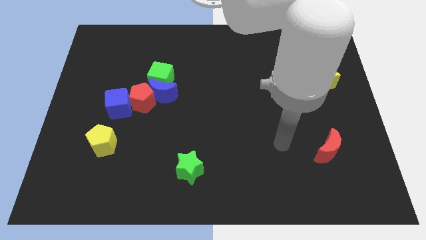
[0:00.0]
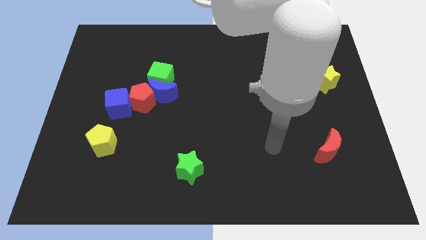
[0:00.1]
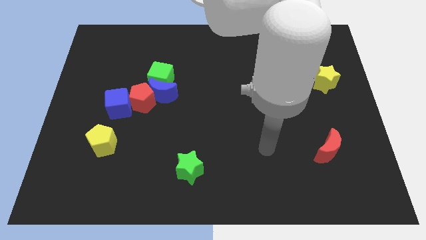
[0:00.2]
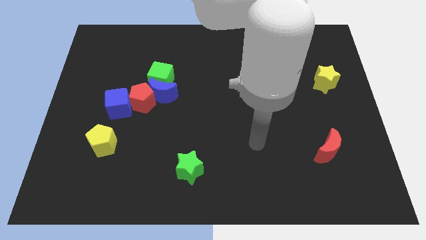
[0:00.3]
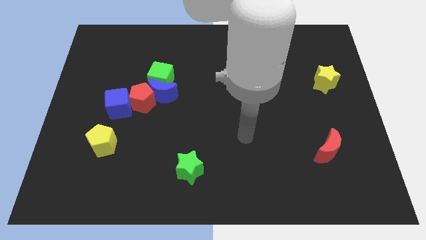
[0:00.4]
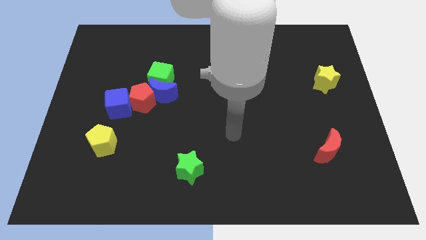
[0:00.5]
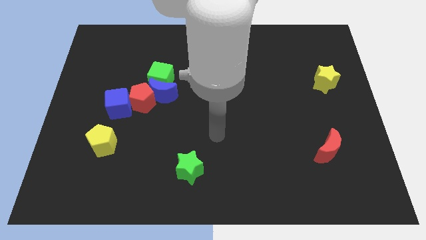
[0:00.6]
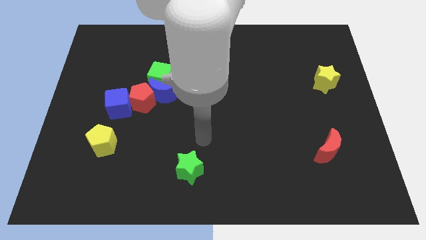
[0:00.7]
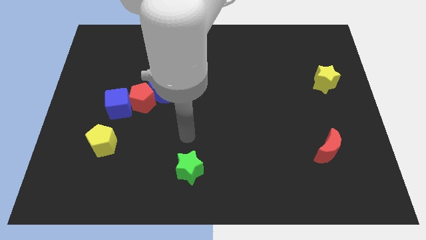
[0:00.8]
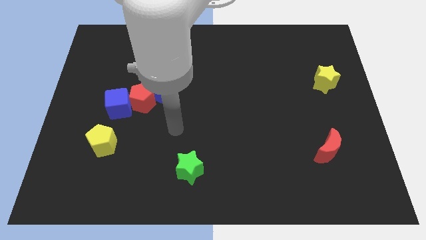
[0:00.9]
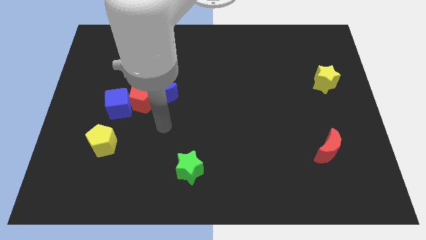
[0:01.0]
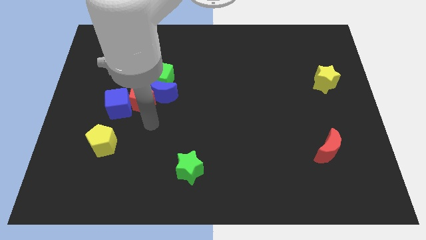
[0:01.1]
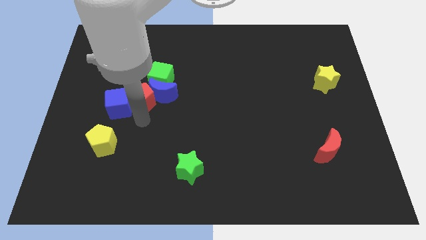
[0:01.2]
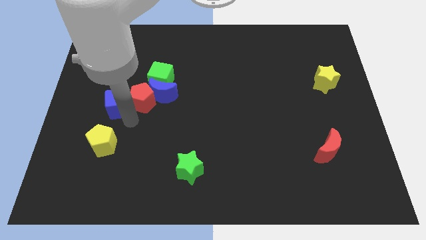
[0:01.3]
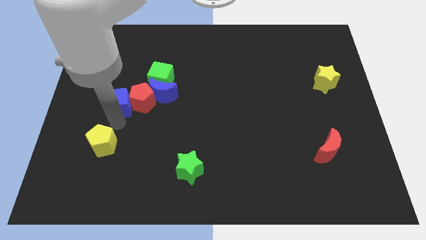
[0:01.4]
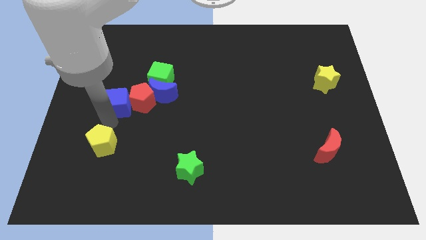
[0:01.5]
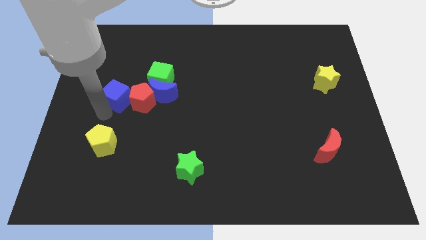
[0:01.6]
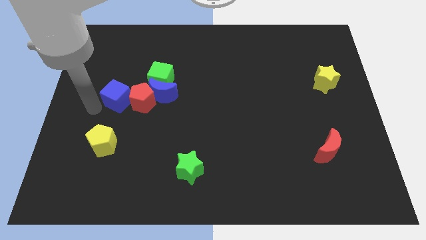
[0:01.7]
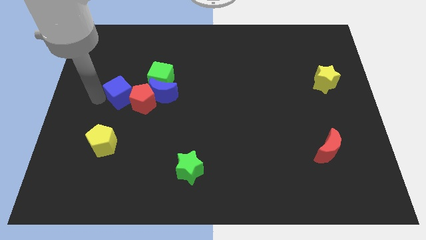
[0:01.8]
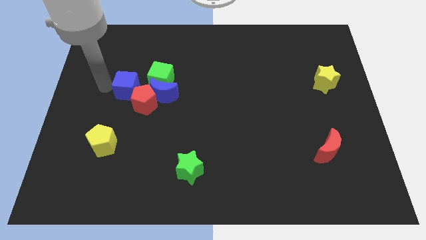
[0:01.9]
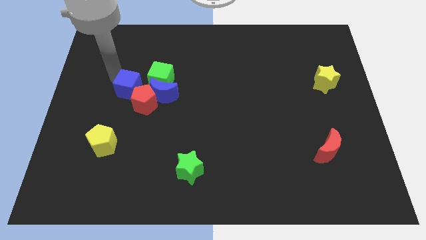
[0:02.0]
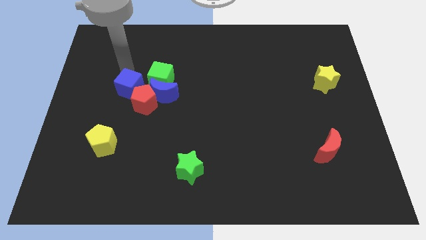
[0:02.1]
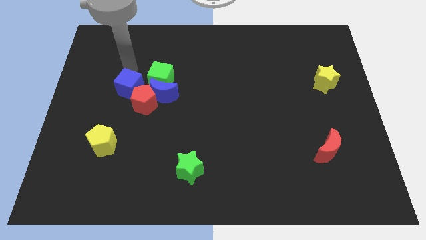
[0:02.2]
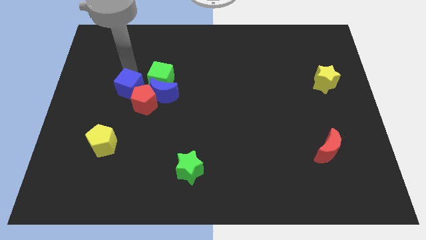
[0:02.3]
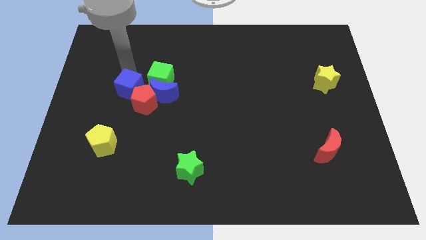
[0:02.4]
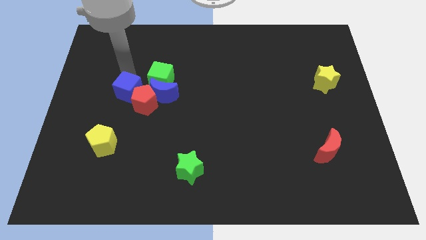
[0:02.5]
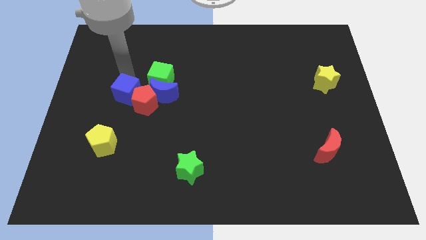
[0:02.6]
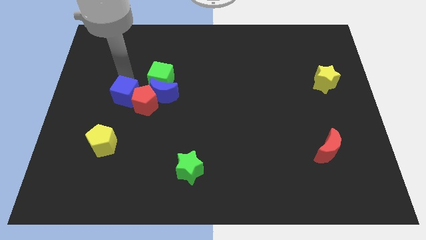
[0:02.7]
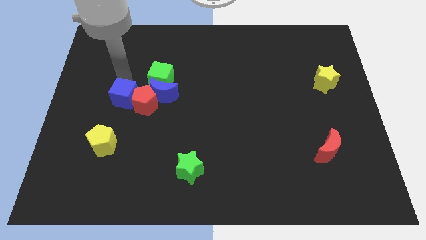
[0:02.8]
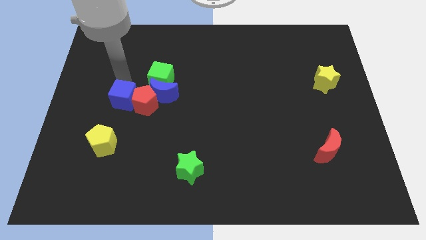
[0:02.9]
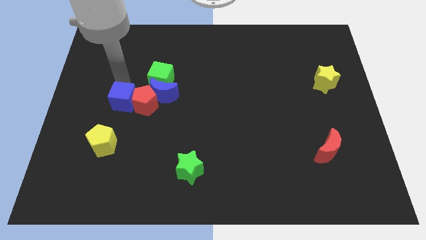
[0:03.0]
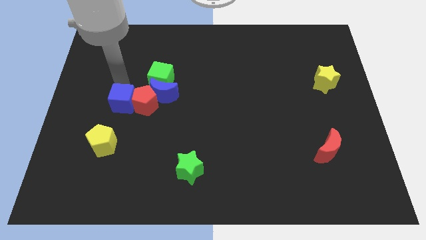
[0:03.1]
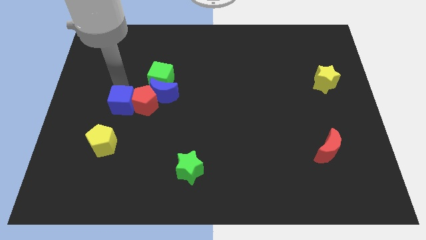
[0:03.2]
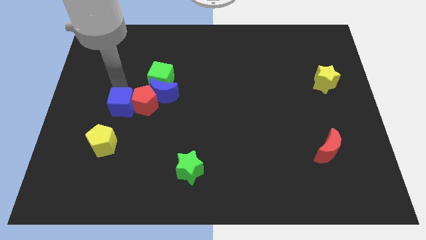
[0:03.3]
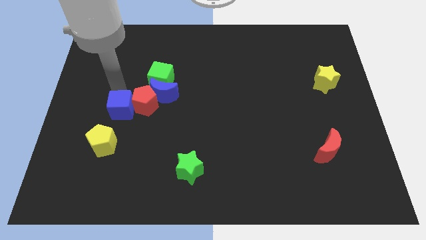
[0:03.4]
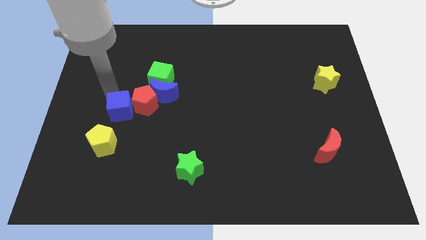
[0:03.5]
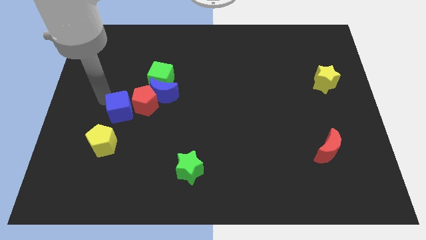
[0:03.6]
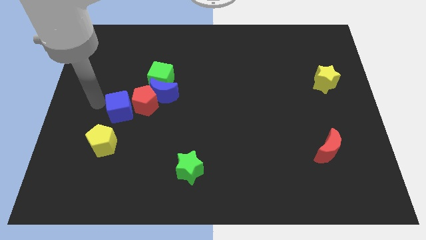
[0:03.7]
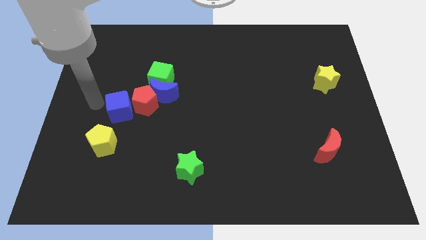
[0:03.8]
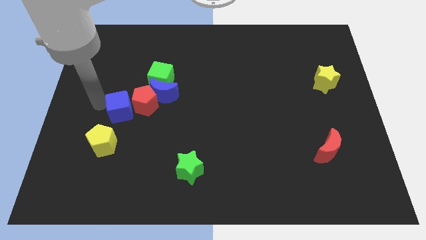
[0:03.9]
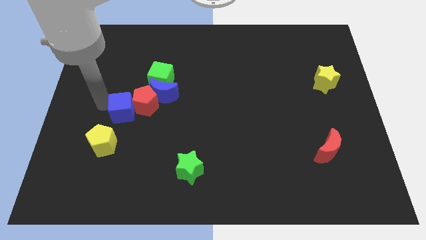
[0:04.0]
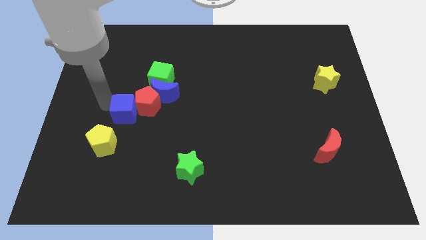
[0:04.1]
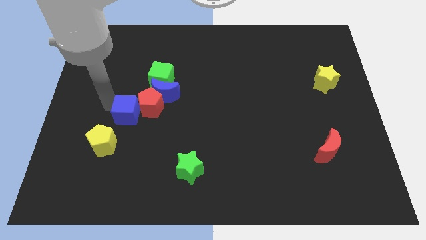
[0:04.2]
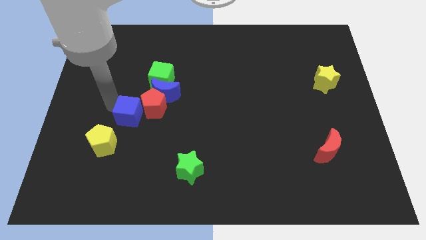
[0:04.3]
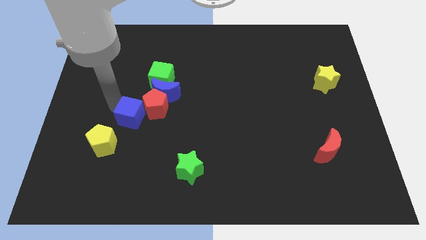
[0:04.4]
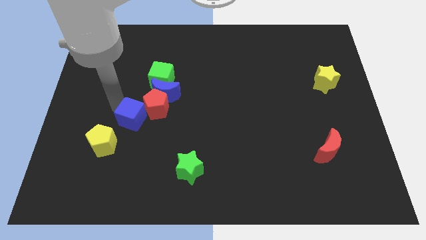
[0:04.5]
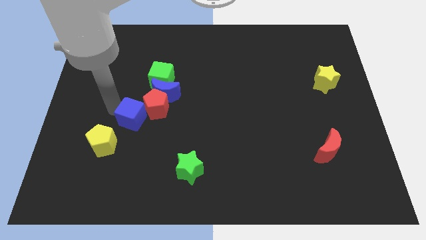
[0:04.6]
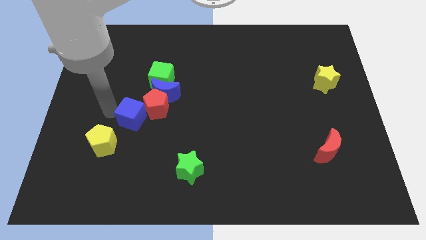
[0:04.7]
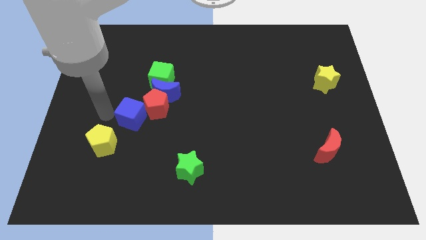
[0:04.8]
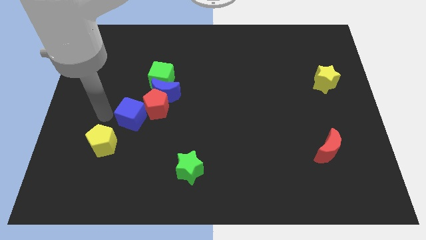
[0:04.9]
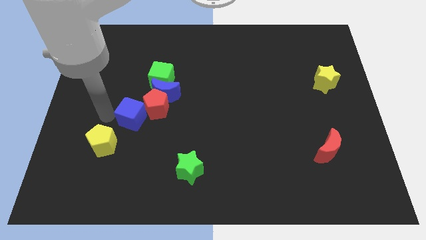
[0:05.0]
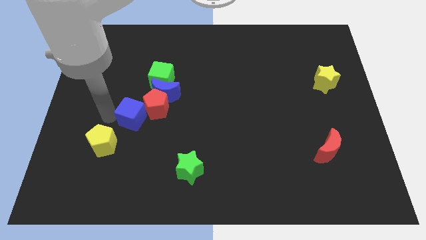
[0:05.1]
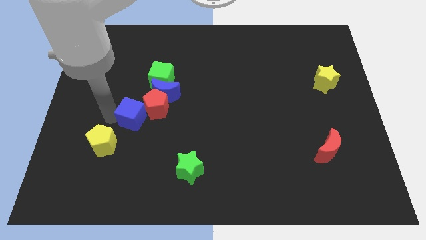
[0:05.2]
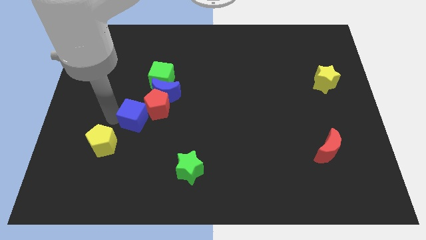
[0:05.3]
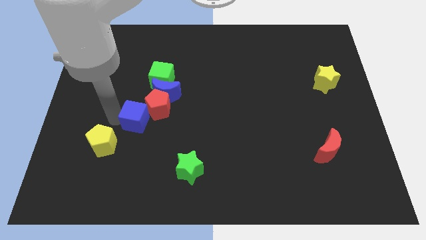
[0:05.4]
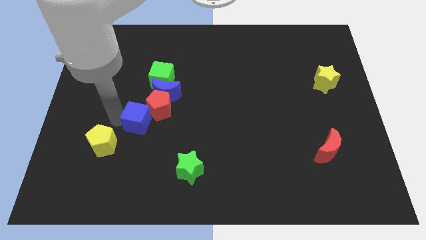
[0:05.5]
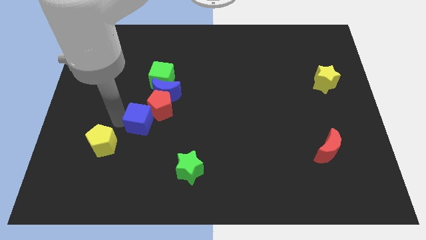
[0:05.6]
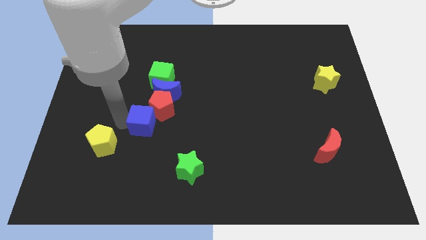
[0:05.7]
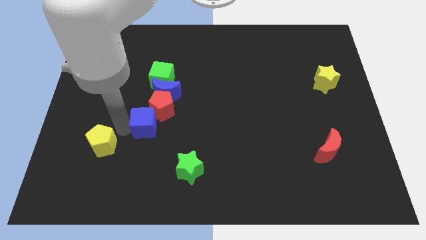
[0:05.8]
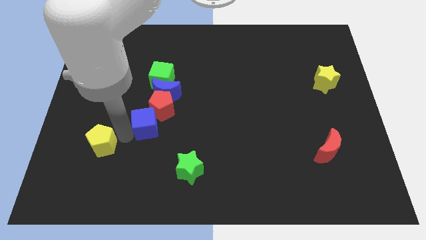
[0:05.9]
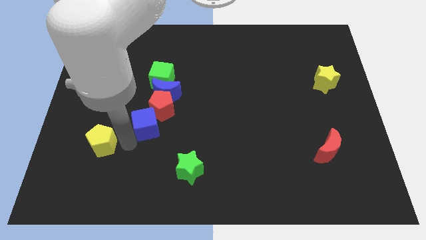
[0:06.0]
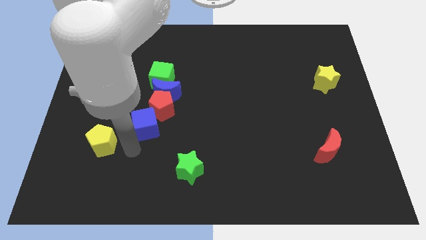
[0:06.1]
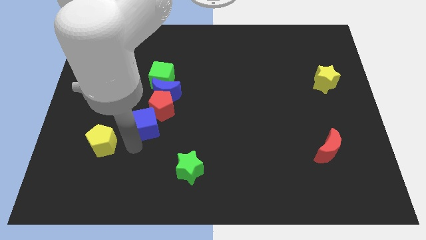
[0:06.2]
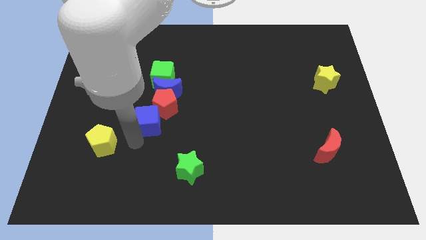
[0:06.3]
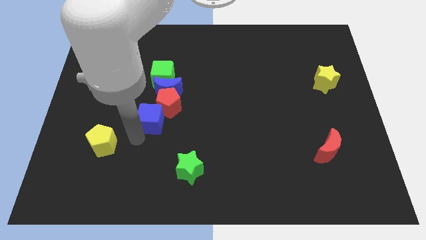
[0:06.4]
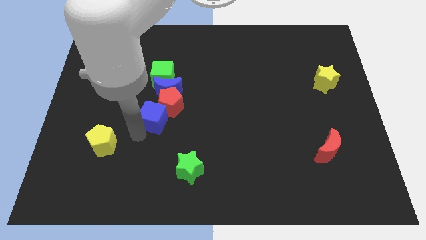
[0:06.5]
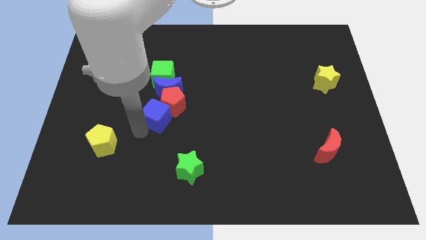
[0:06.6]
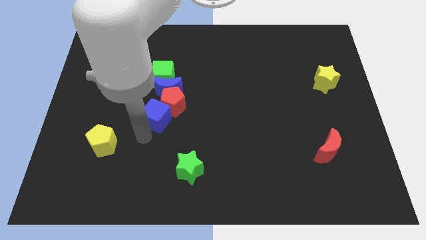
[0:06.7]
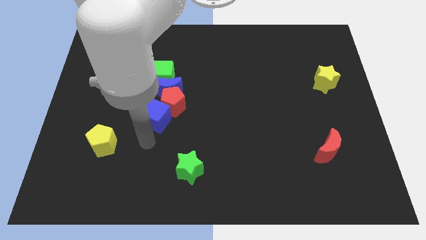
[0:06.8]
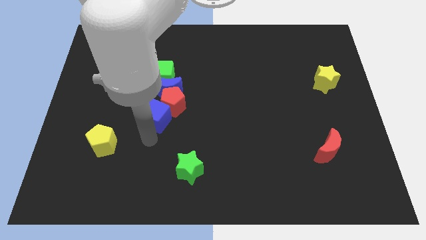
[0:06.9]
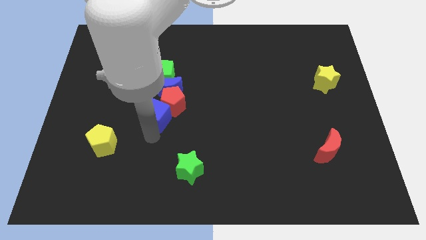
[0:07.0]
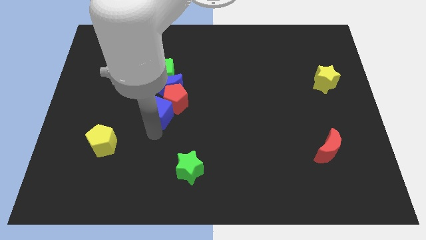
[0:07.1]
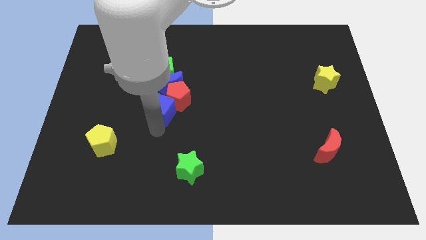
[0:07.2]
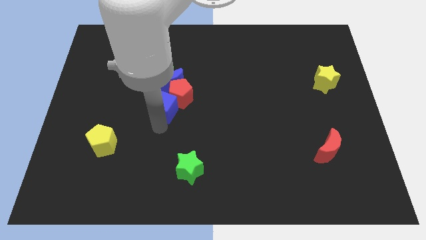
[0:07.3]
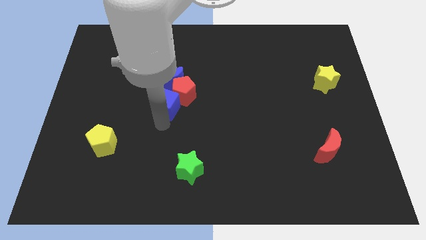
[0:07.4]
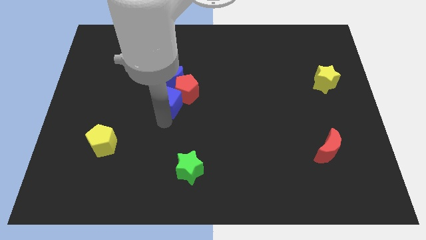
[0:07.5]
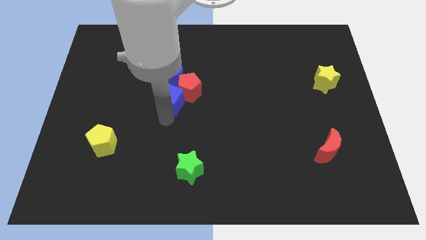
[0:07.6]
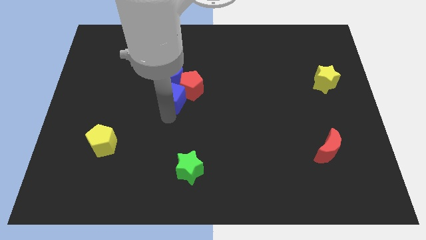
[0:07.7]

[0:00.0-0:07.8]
slide the blue cube next to the blue moon
